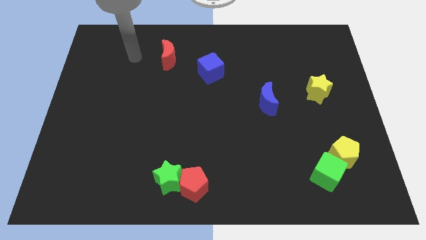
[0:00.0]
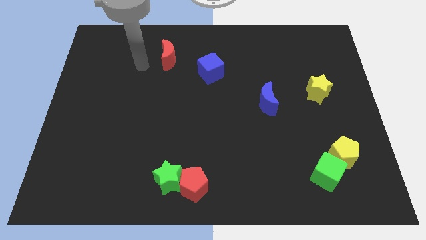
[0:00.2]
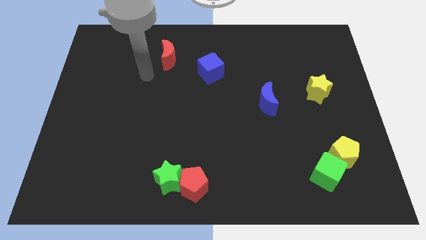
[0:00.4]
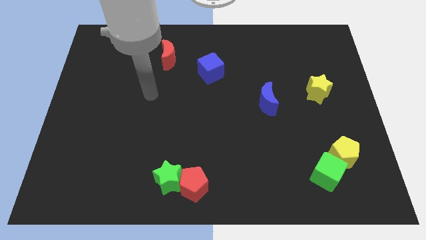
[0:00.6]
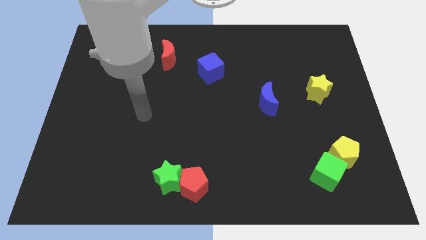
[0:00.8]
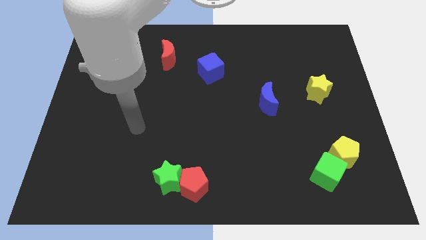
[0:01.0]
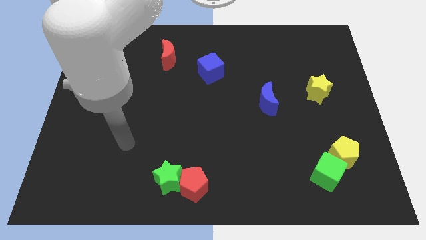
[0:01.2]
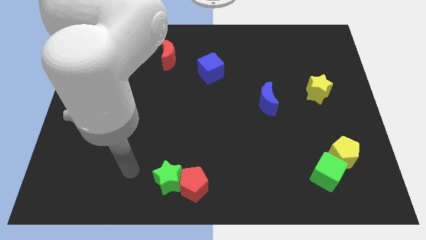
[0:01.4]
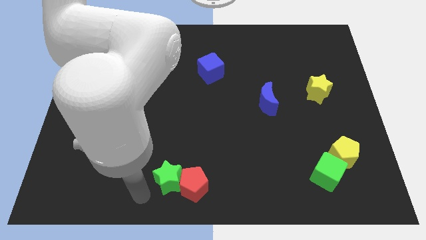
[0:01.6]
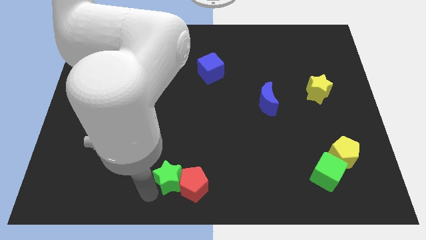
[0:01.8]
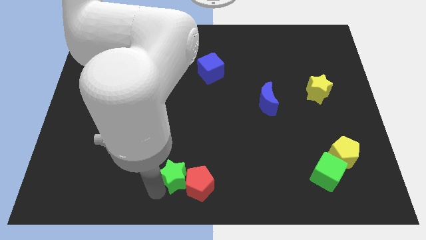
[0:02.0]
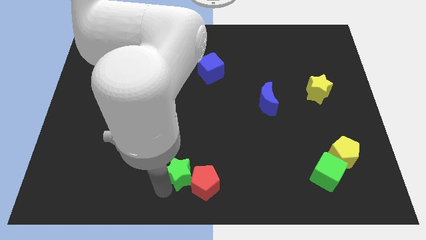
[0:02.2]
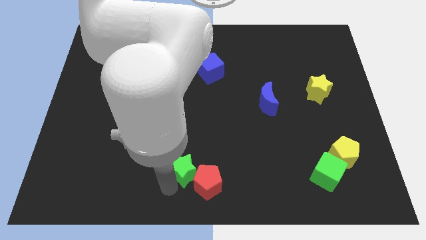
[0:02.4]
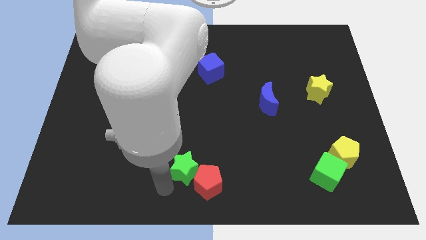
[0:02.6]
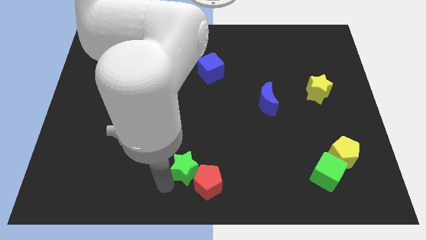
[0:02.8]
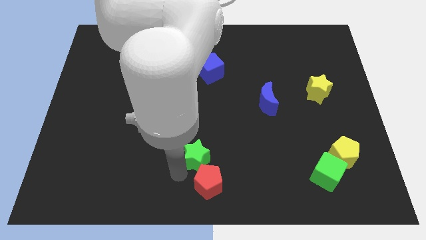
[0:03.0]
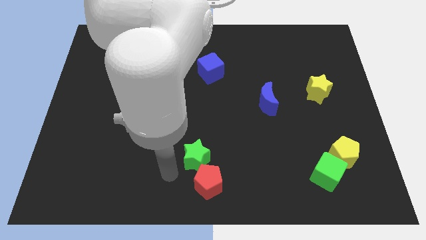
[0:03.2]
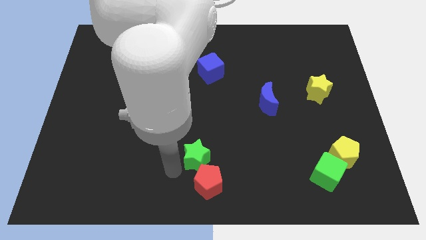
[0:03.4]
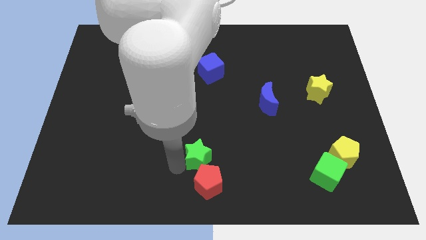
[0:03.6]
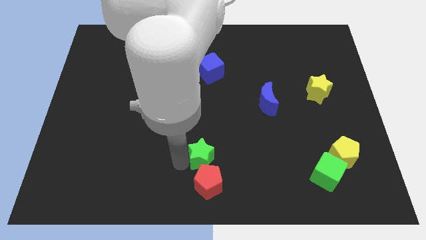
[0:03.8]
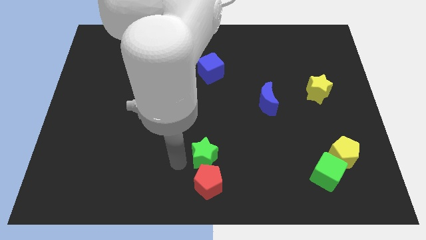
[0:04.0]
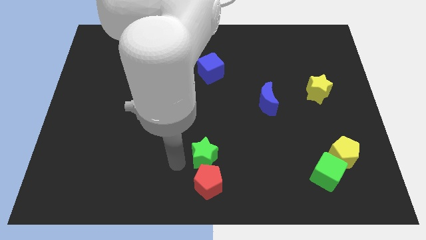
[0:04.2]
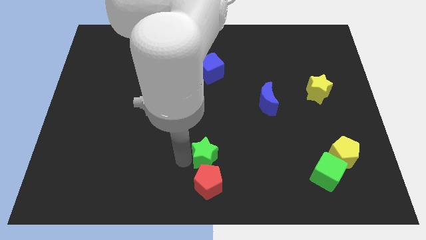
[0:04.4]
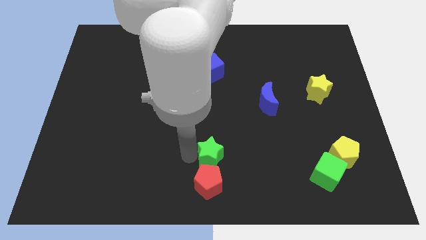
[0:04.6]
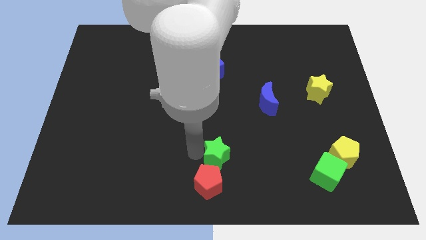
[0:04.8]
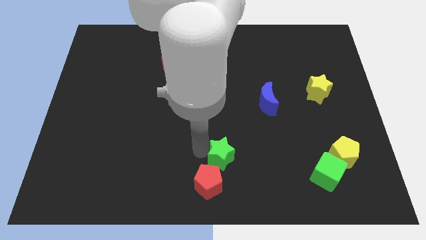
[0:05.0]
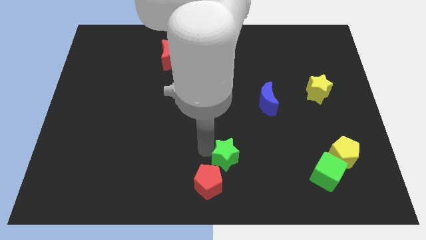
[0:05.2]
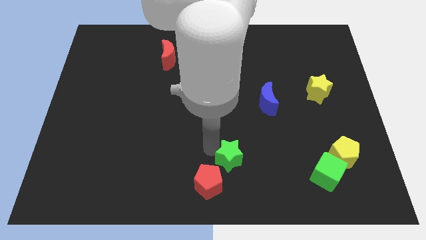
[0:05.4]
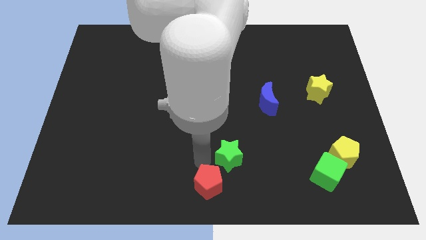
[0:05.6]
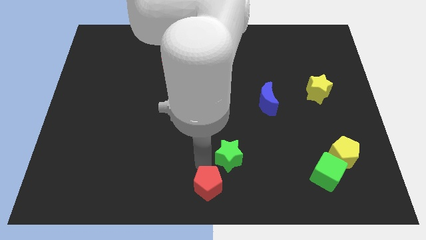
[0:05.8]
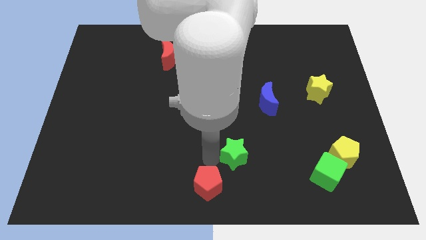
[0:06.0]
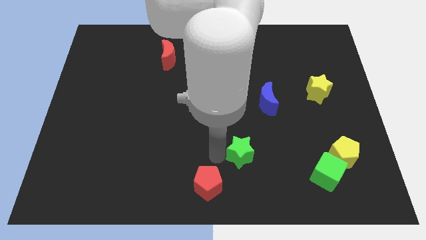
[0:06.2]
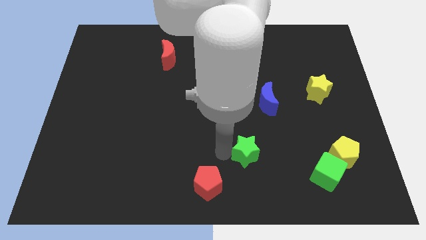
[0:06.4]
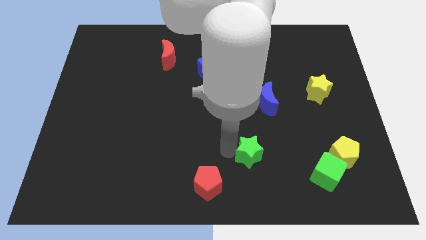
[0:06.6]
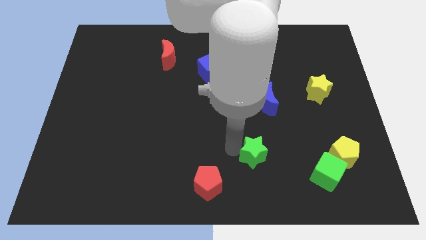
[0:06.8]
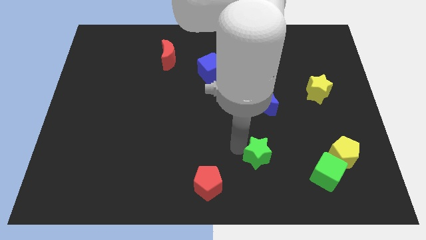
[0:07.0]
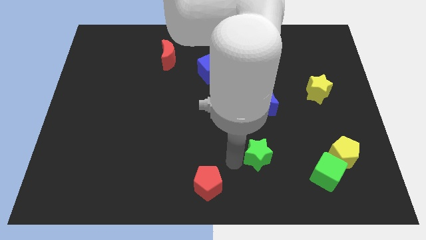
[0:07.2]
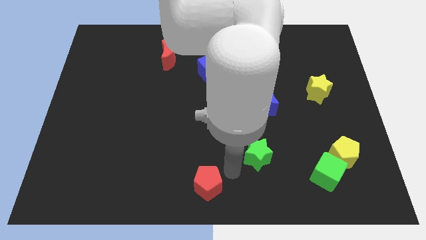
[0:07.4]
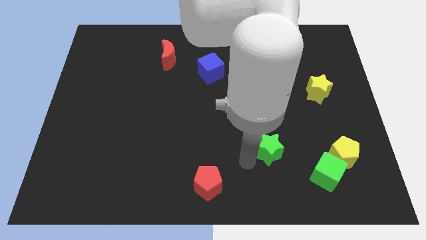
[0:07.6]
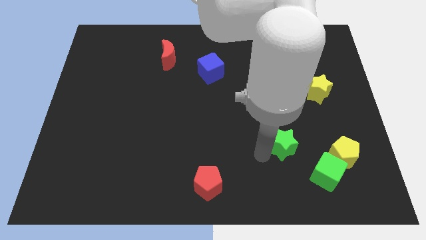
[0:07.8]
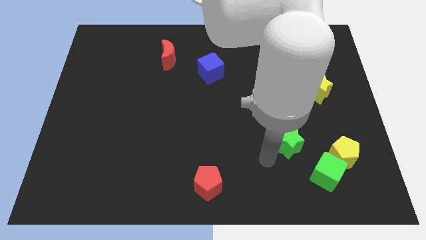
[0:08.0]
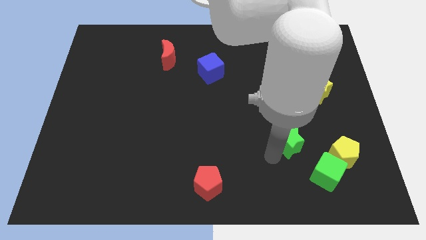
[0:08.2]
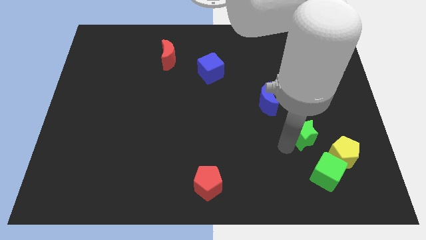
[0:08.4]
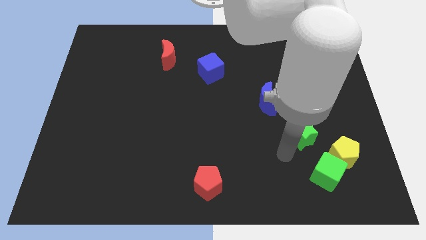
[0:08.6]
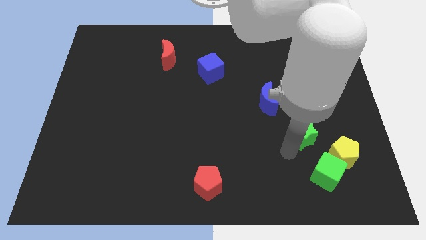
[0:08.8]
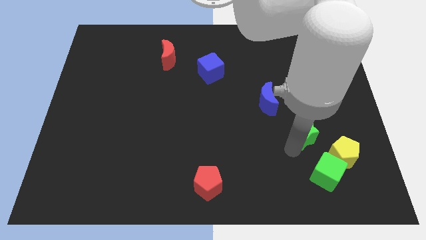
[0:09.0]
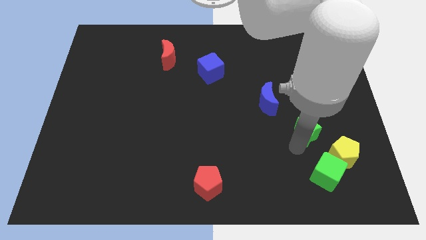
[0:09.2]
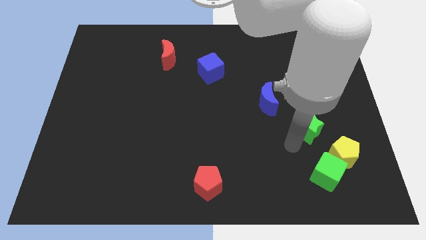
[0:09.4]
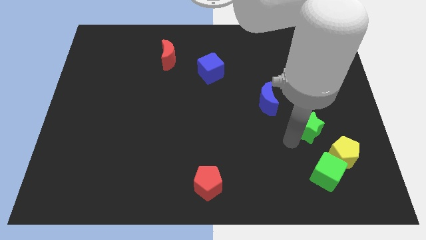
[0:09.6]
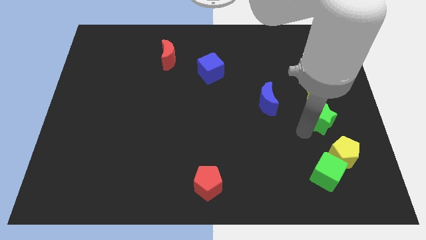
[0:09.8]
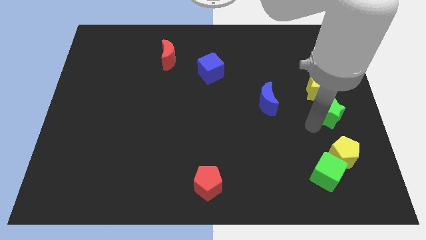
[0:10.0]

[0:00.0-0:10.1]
move the green star to the center right

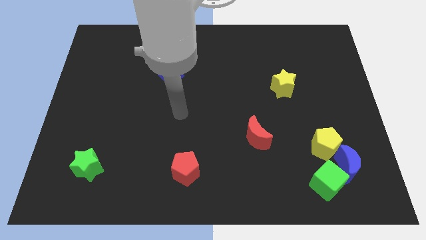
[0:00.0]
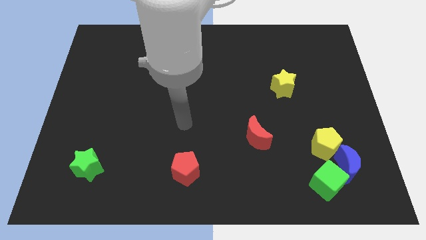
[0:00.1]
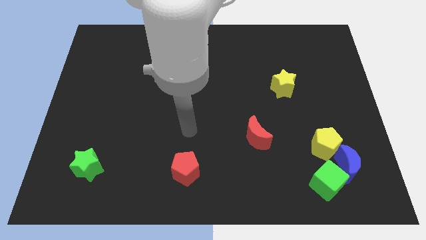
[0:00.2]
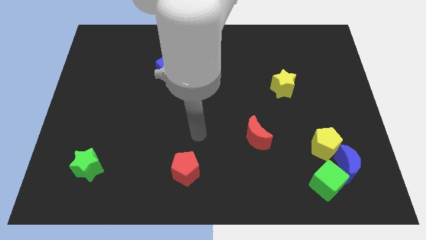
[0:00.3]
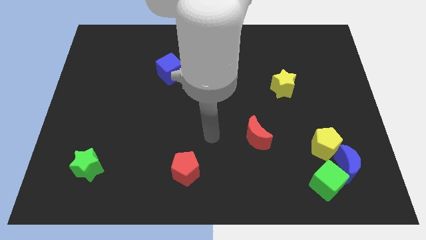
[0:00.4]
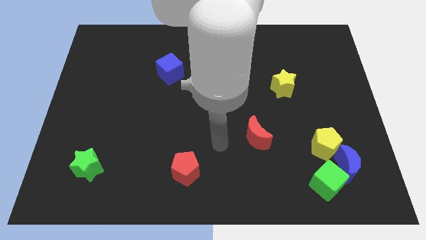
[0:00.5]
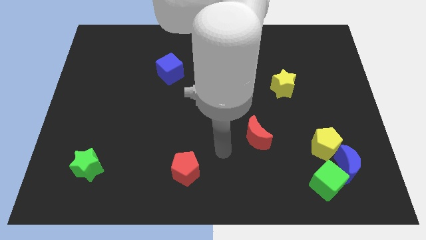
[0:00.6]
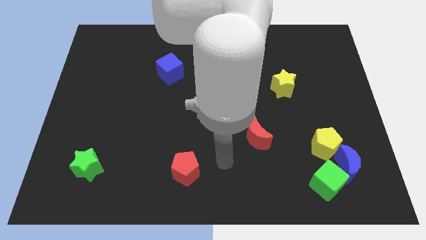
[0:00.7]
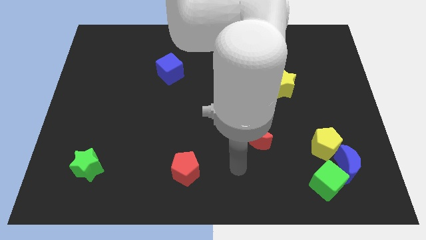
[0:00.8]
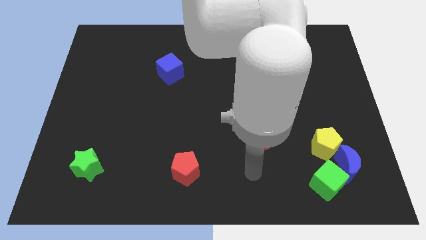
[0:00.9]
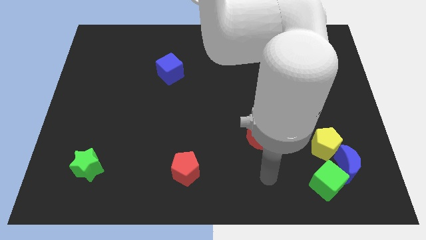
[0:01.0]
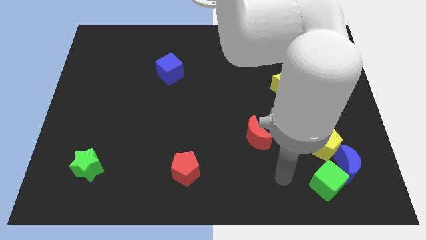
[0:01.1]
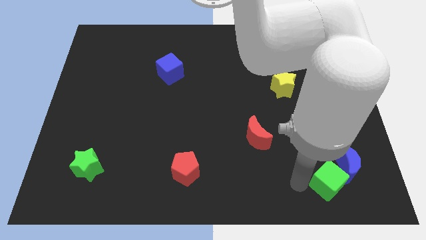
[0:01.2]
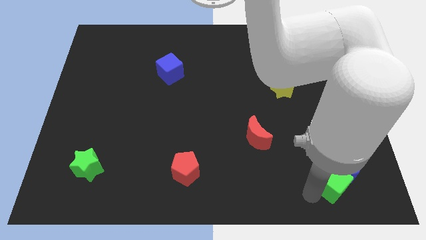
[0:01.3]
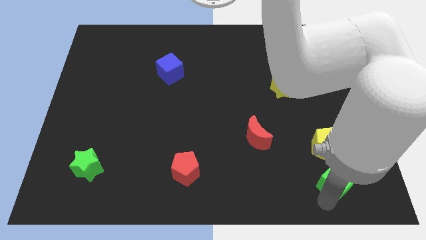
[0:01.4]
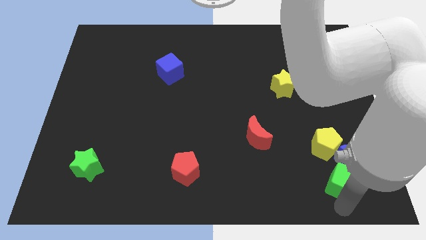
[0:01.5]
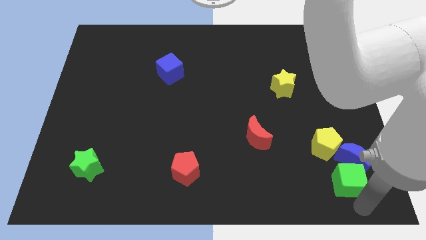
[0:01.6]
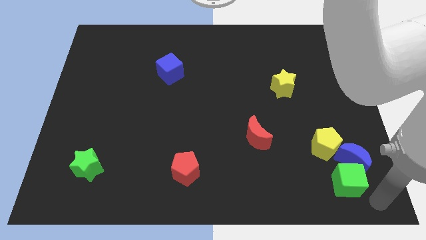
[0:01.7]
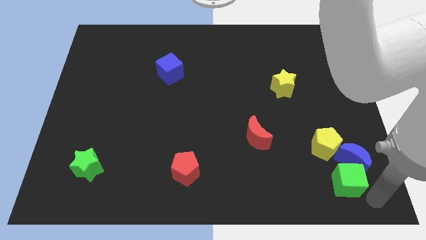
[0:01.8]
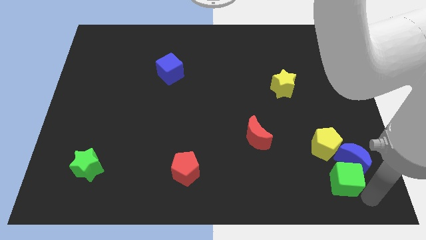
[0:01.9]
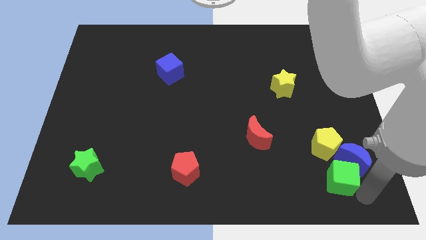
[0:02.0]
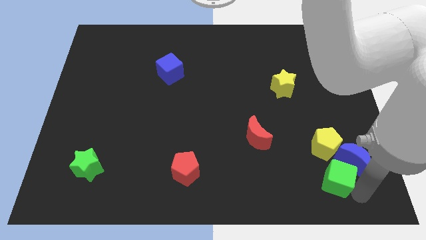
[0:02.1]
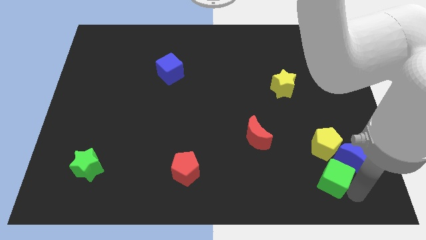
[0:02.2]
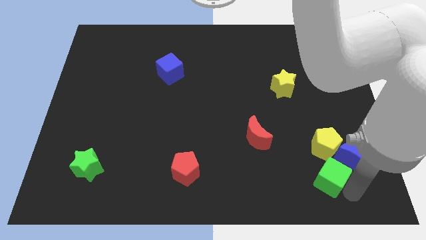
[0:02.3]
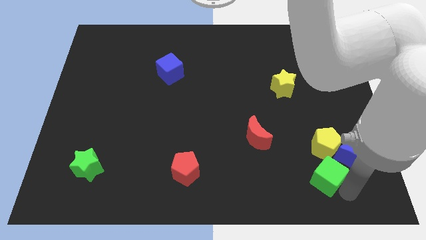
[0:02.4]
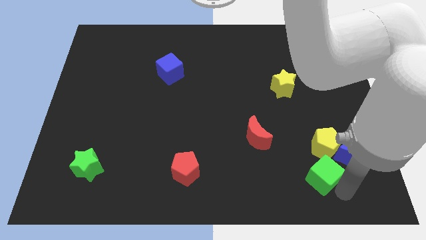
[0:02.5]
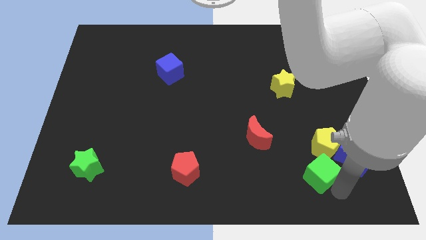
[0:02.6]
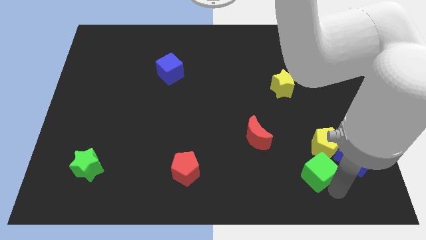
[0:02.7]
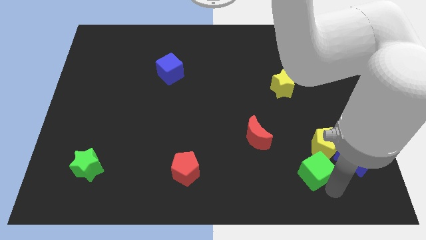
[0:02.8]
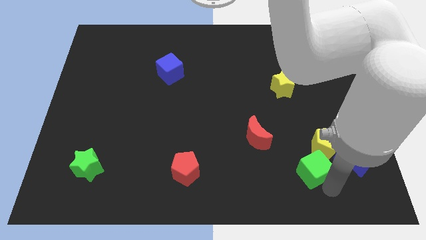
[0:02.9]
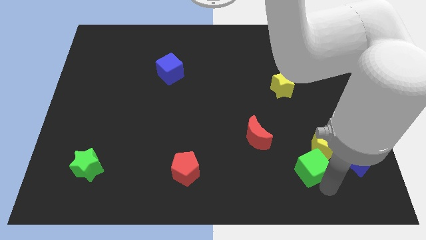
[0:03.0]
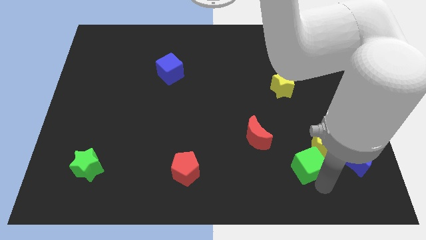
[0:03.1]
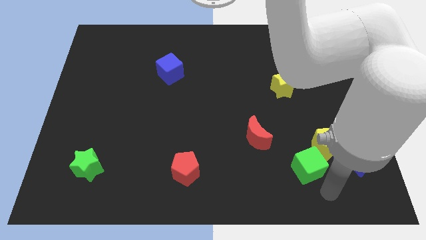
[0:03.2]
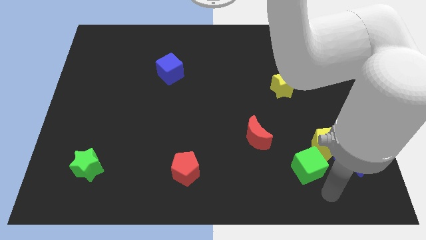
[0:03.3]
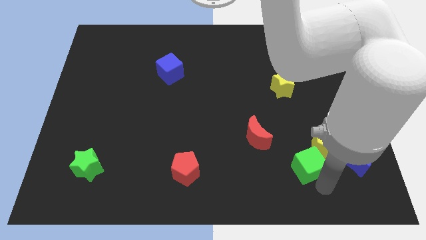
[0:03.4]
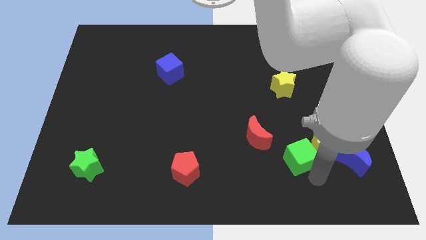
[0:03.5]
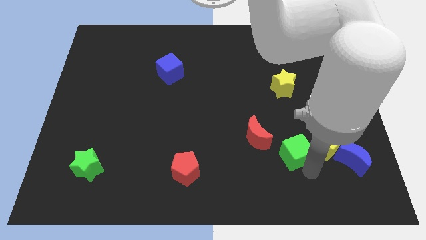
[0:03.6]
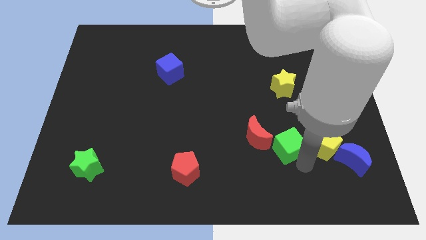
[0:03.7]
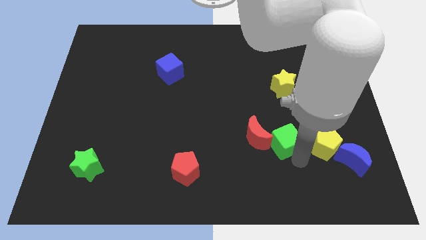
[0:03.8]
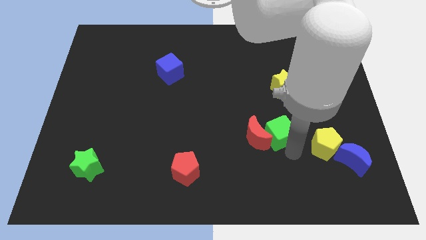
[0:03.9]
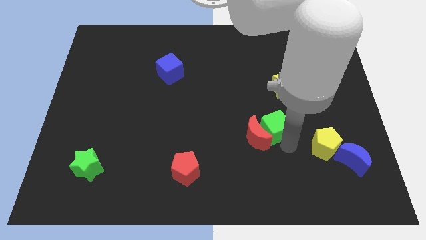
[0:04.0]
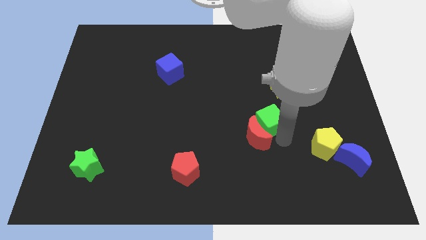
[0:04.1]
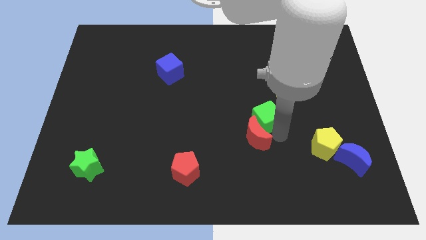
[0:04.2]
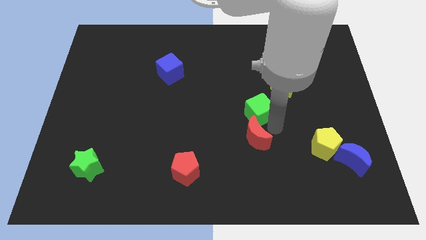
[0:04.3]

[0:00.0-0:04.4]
put the green cube to the center
